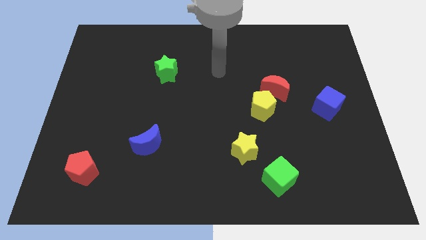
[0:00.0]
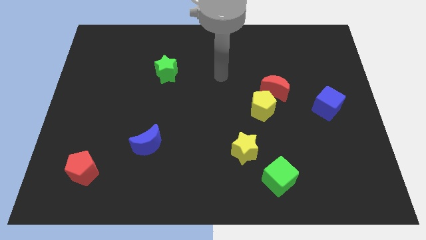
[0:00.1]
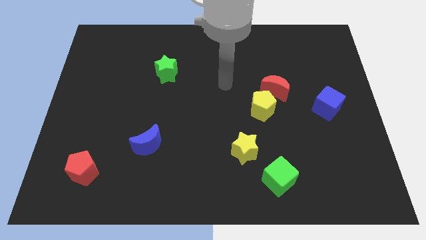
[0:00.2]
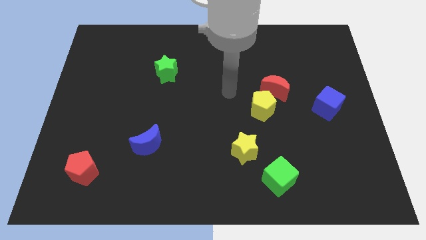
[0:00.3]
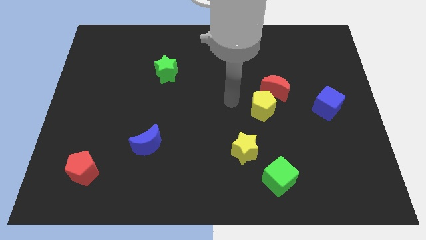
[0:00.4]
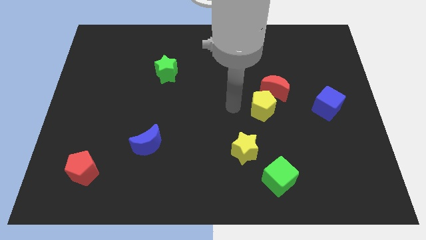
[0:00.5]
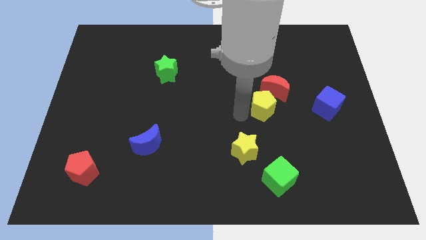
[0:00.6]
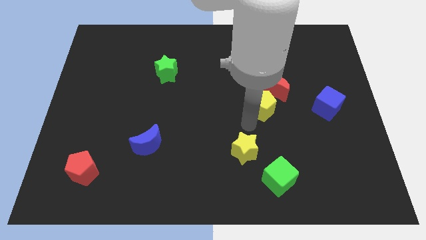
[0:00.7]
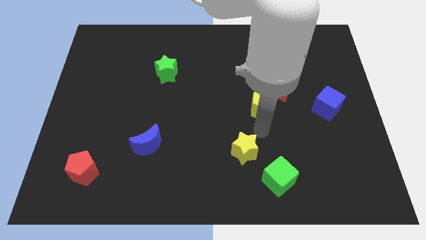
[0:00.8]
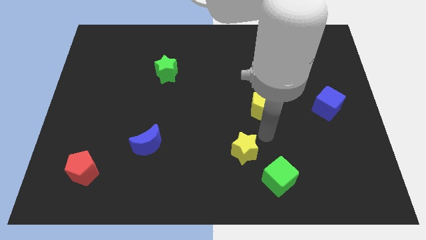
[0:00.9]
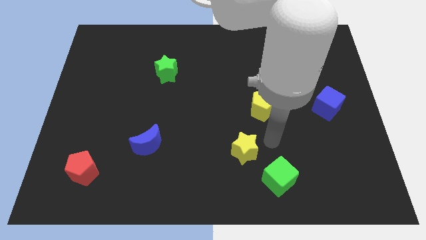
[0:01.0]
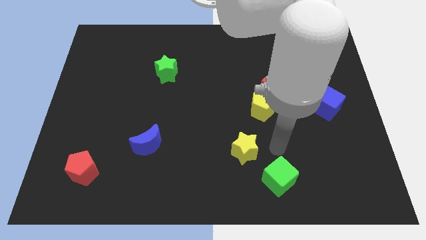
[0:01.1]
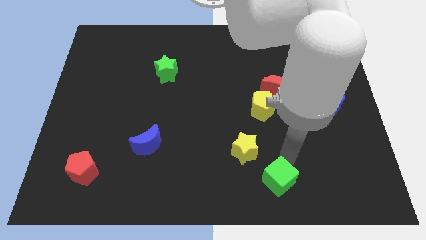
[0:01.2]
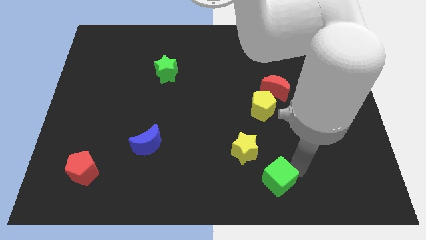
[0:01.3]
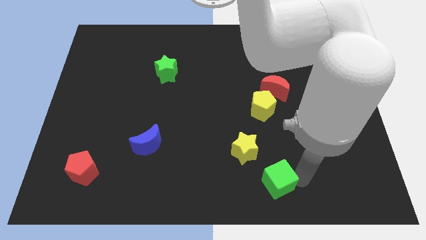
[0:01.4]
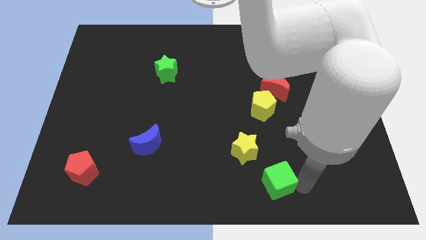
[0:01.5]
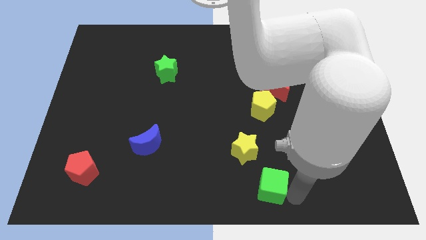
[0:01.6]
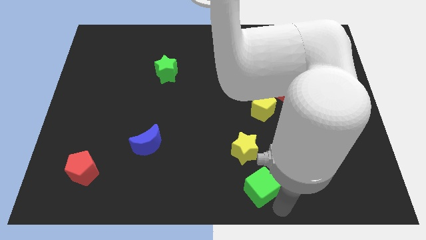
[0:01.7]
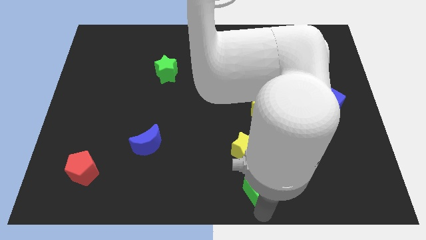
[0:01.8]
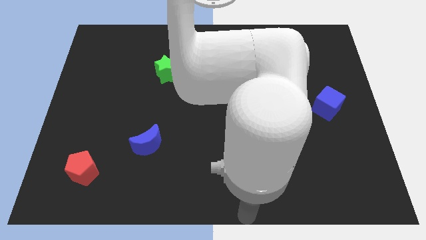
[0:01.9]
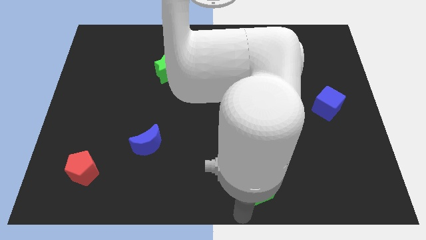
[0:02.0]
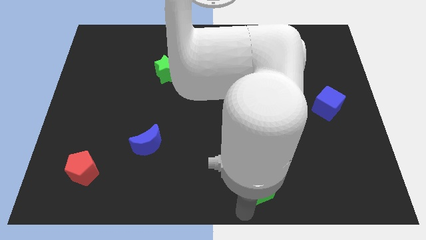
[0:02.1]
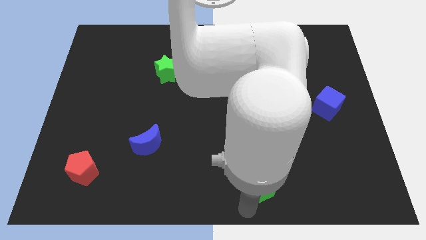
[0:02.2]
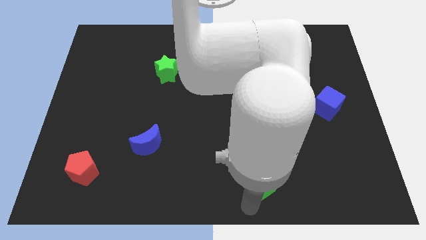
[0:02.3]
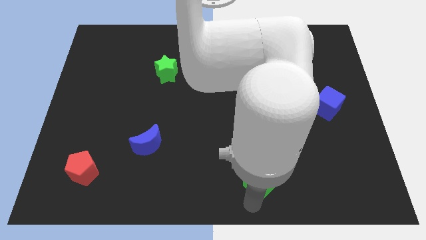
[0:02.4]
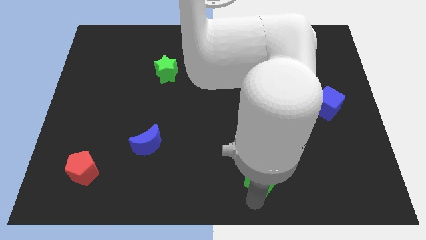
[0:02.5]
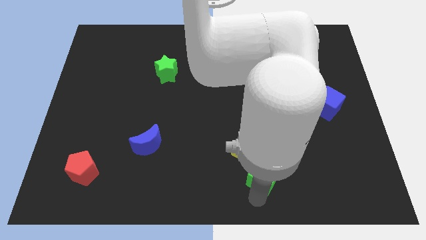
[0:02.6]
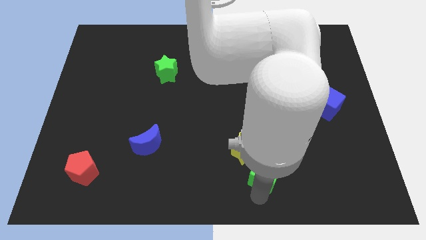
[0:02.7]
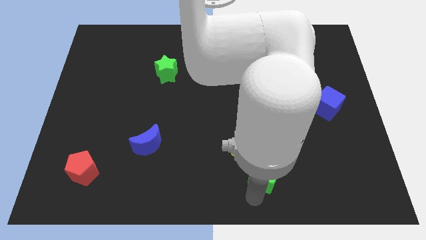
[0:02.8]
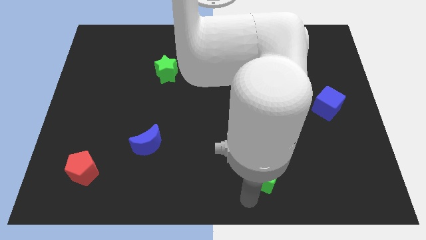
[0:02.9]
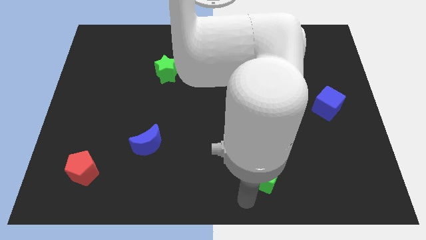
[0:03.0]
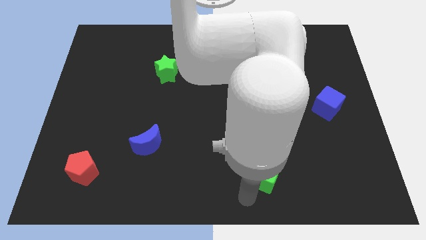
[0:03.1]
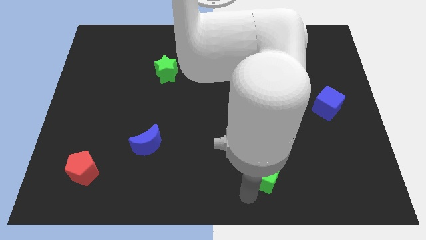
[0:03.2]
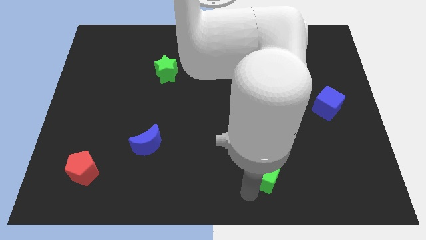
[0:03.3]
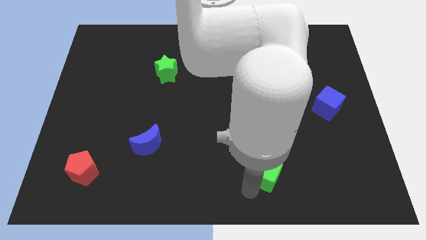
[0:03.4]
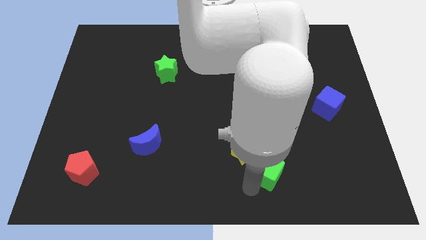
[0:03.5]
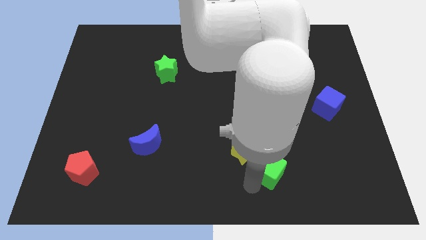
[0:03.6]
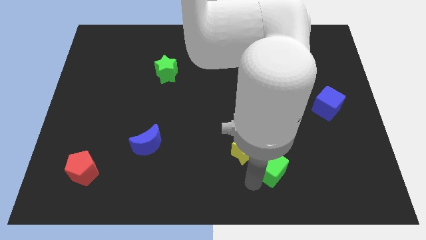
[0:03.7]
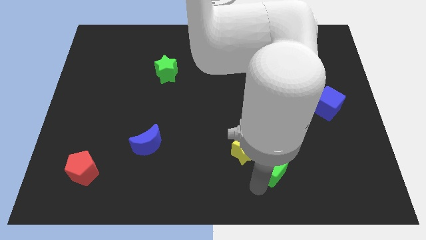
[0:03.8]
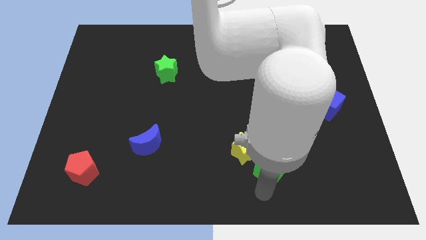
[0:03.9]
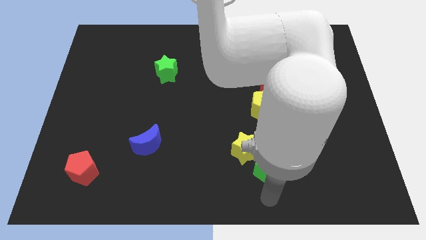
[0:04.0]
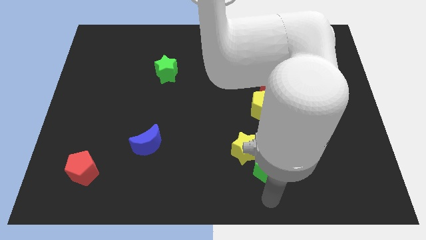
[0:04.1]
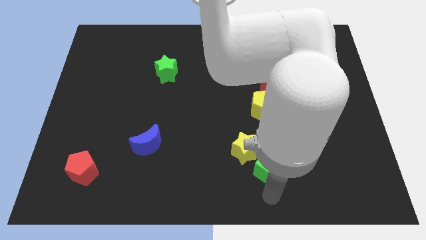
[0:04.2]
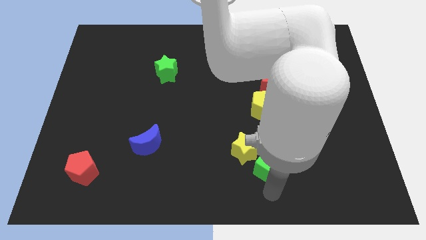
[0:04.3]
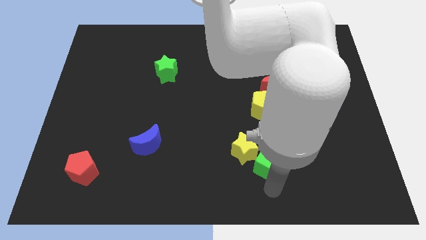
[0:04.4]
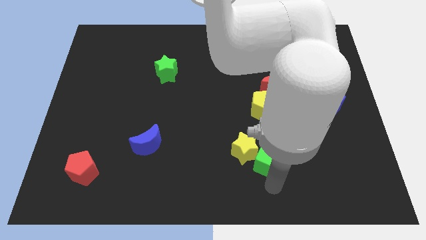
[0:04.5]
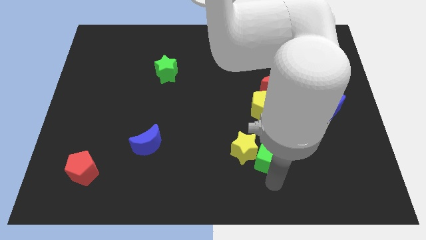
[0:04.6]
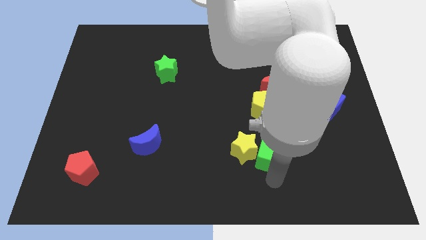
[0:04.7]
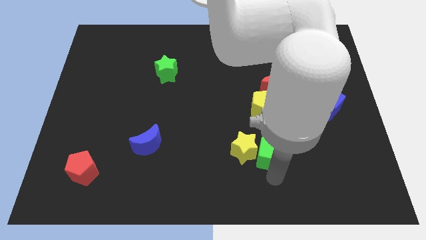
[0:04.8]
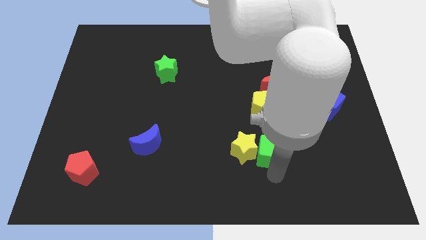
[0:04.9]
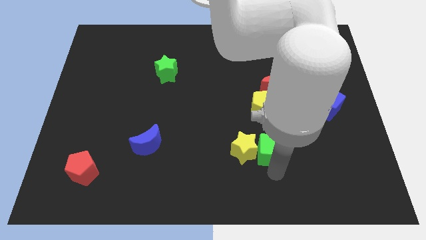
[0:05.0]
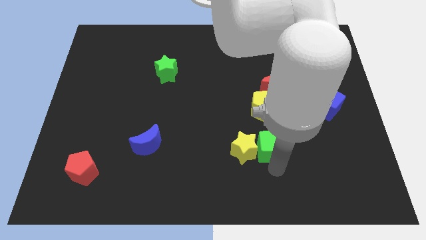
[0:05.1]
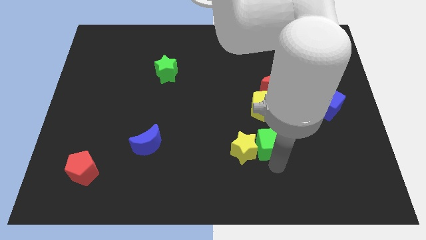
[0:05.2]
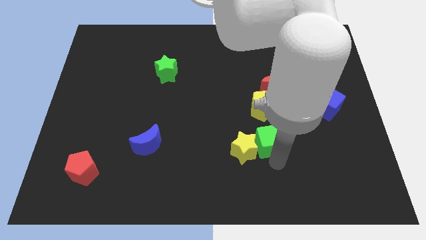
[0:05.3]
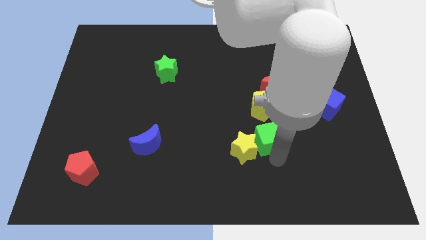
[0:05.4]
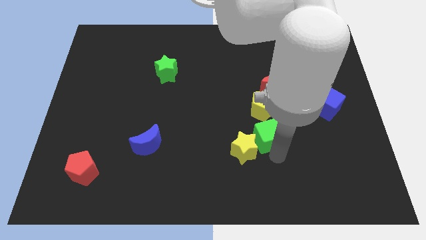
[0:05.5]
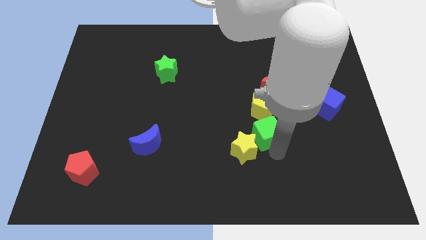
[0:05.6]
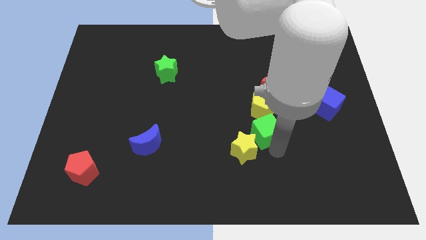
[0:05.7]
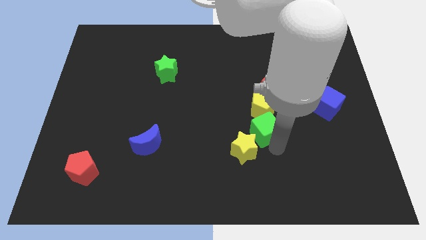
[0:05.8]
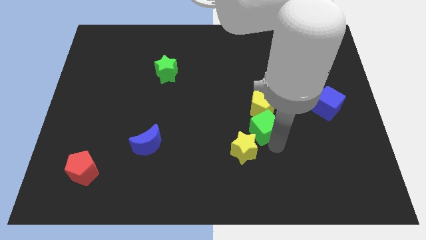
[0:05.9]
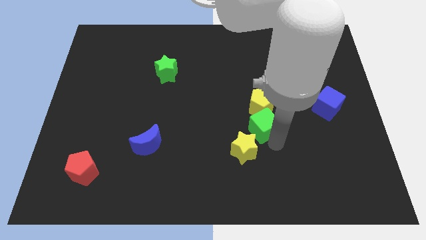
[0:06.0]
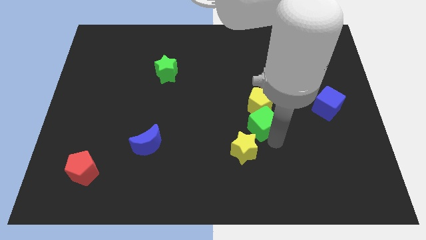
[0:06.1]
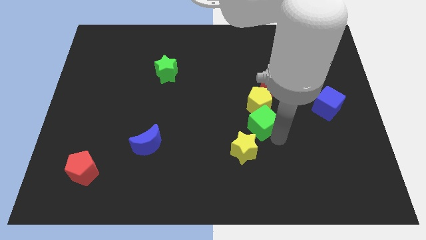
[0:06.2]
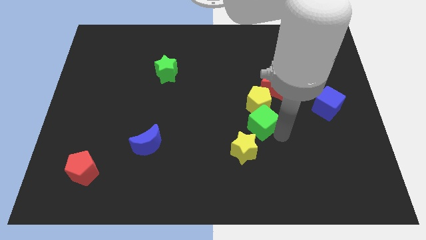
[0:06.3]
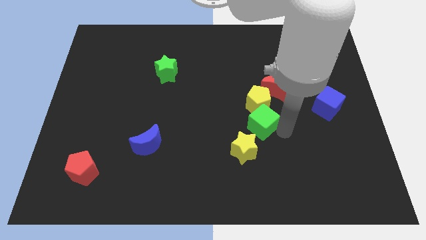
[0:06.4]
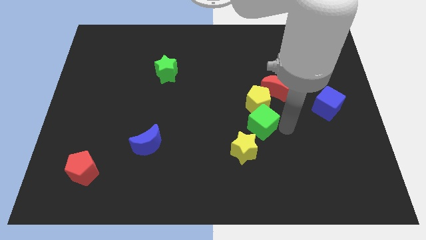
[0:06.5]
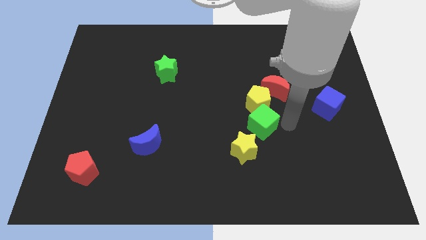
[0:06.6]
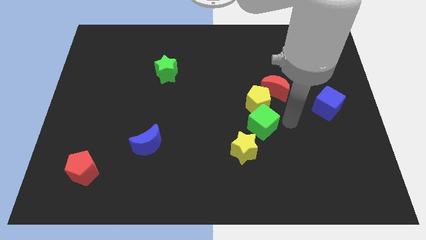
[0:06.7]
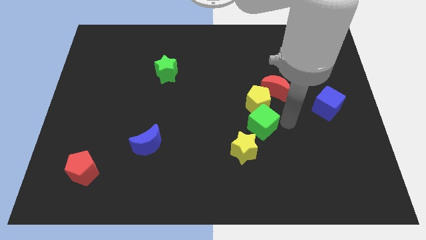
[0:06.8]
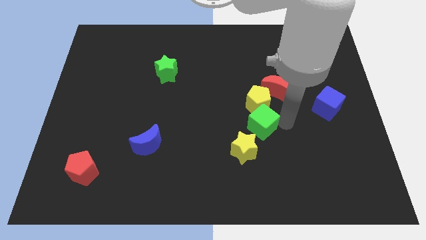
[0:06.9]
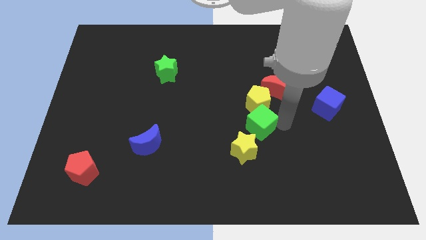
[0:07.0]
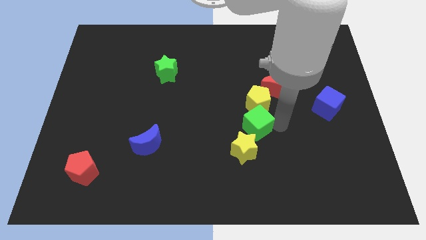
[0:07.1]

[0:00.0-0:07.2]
move the green cube to the middle of the board

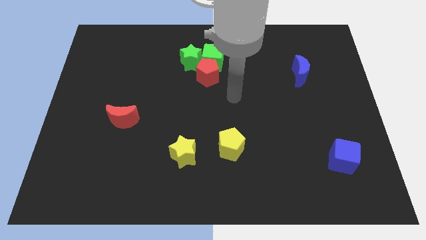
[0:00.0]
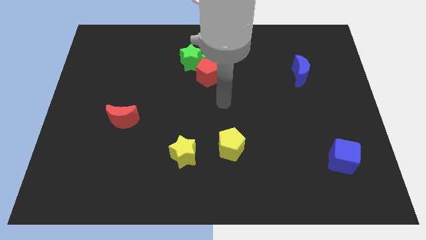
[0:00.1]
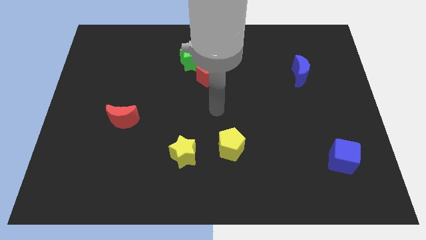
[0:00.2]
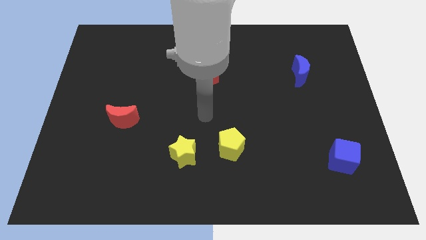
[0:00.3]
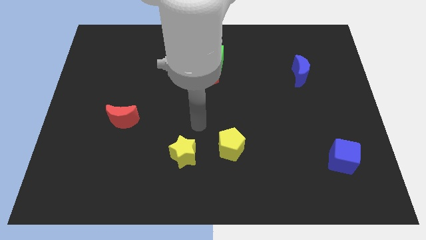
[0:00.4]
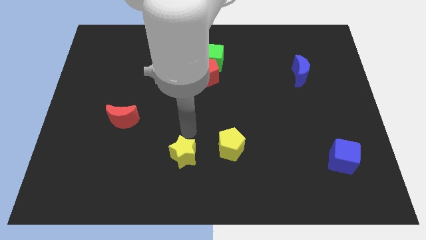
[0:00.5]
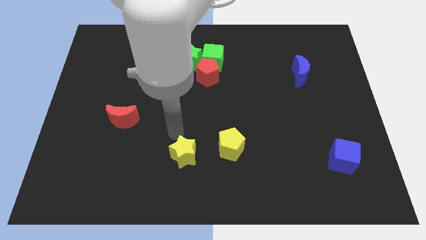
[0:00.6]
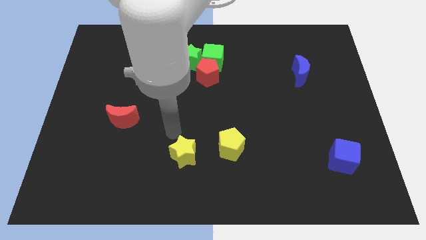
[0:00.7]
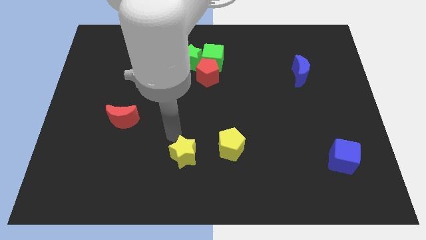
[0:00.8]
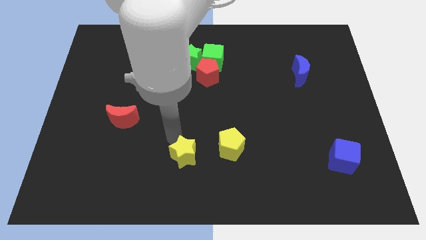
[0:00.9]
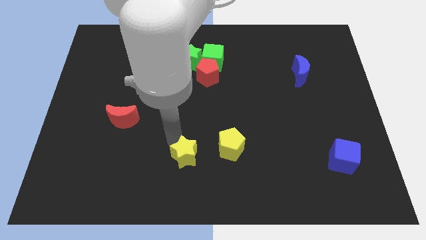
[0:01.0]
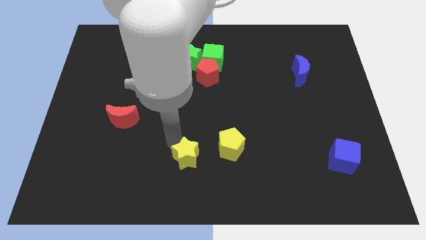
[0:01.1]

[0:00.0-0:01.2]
move the yellow star to the bottom side
